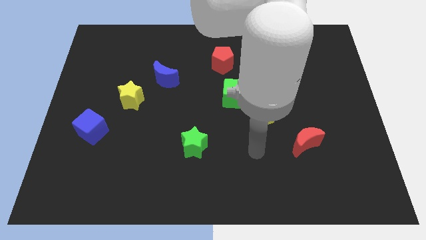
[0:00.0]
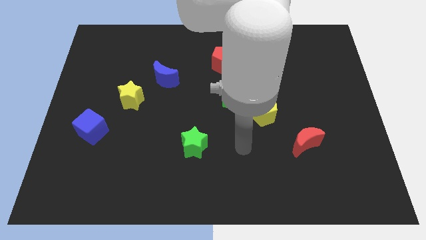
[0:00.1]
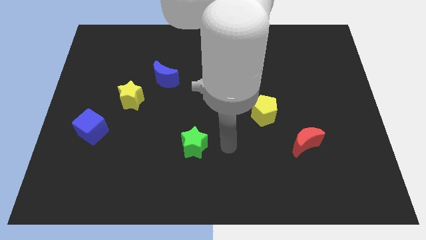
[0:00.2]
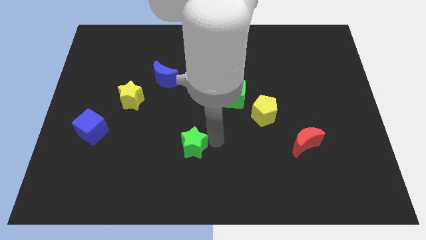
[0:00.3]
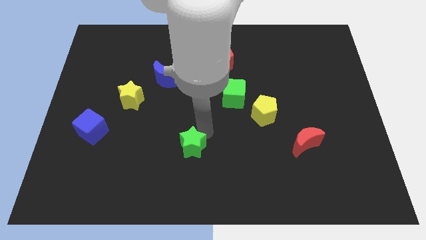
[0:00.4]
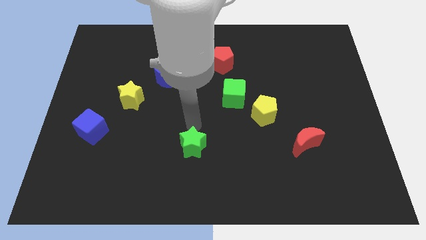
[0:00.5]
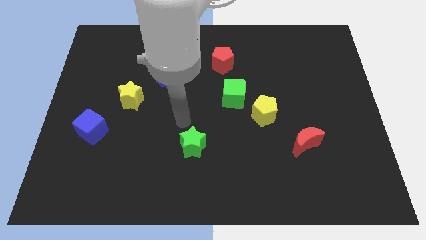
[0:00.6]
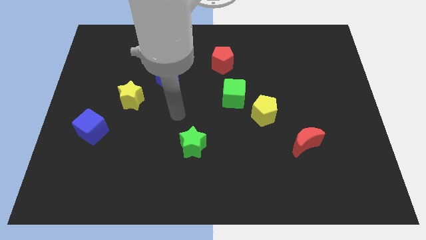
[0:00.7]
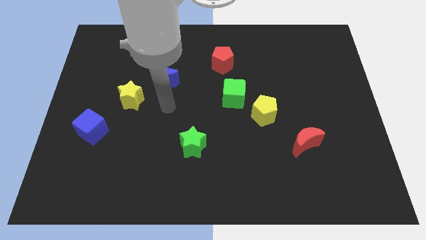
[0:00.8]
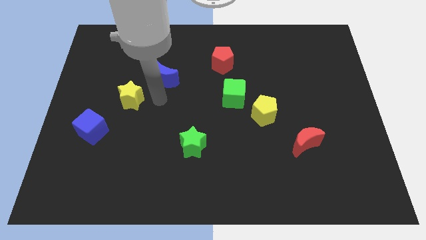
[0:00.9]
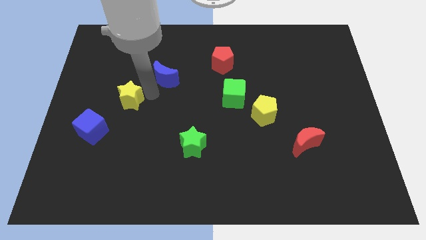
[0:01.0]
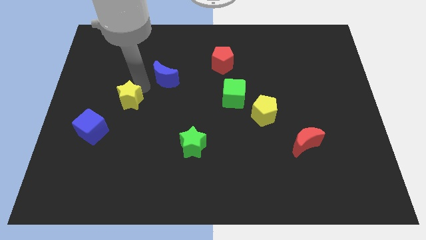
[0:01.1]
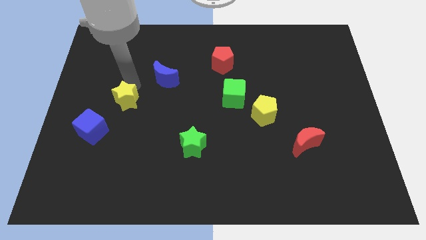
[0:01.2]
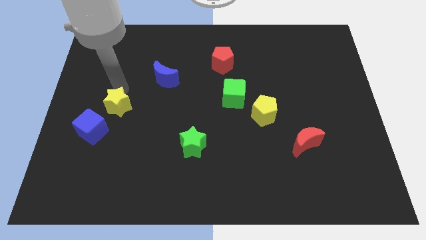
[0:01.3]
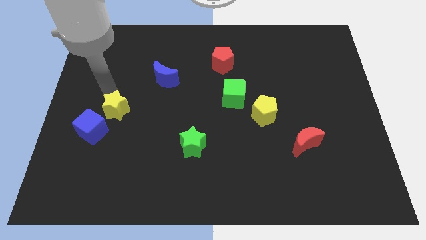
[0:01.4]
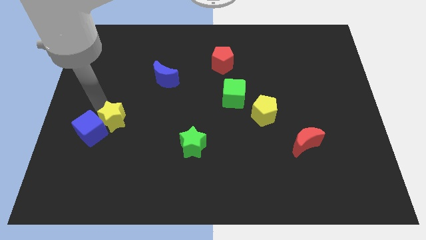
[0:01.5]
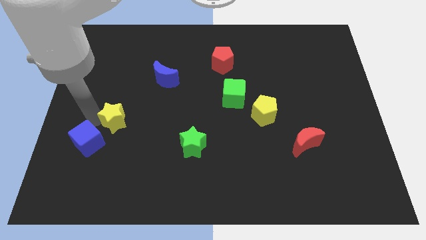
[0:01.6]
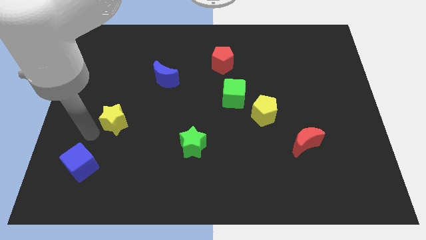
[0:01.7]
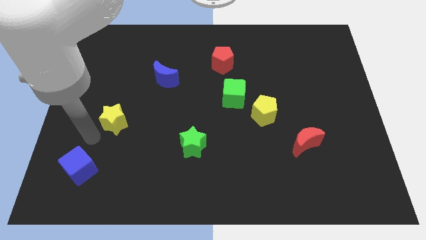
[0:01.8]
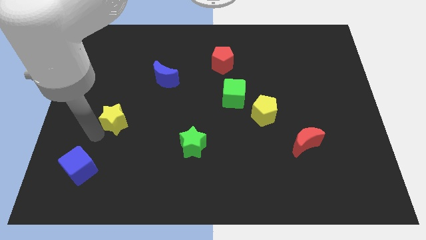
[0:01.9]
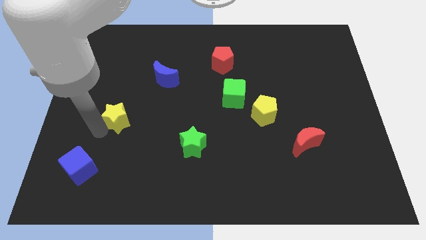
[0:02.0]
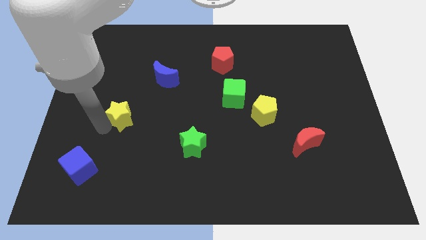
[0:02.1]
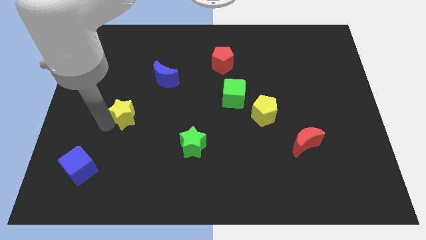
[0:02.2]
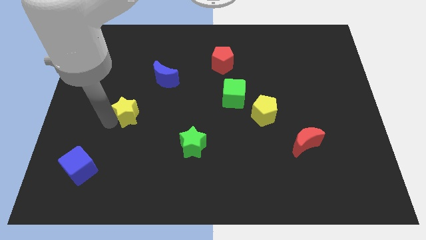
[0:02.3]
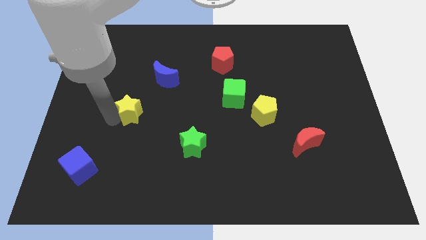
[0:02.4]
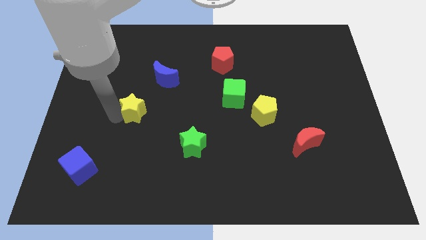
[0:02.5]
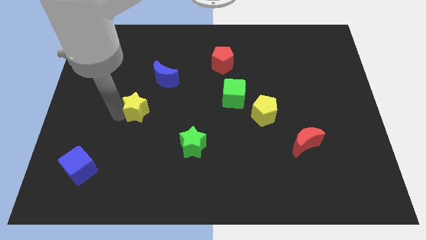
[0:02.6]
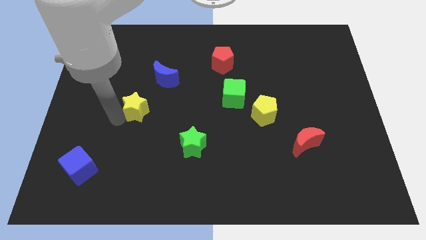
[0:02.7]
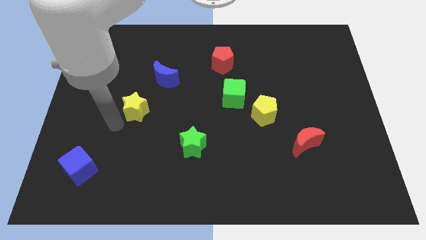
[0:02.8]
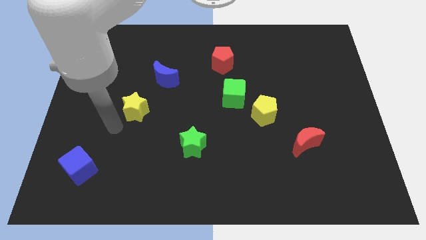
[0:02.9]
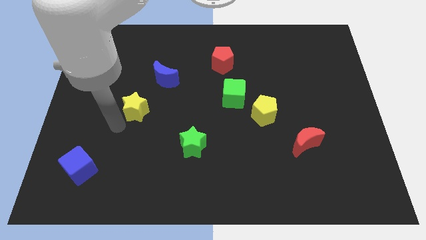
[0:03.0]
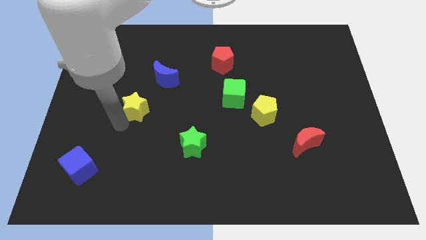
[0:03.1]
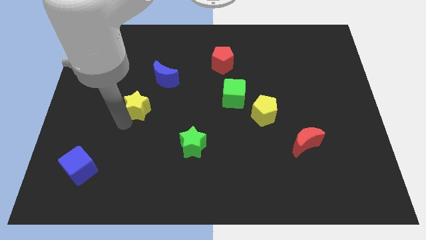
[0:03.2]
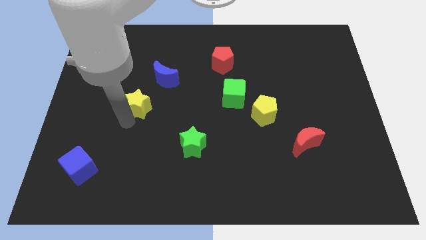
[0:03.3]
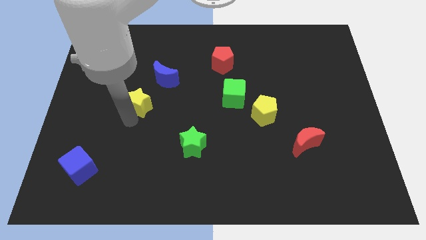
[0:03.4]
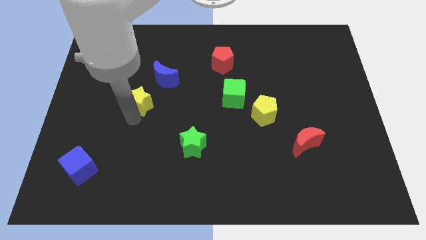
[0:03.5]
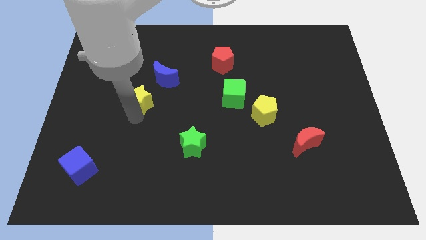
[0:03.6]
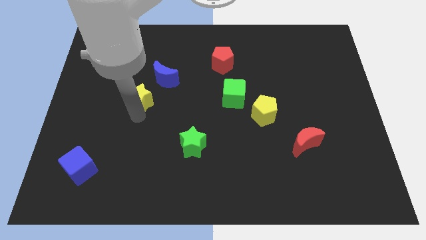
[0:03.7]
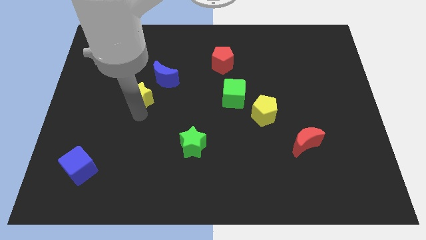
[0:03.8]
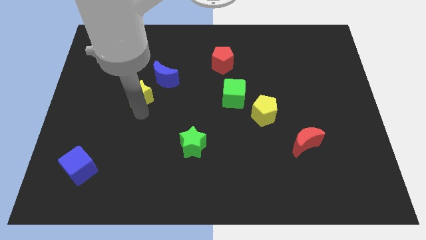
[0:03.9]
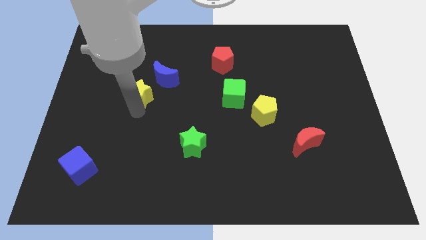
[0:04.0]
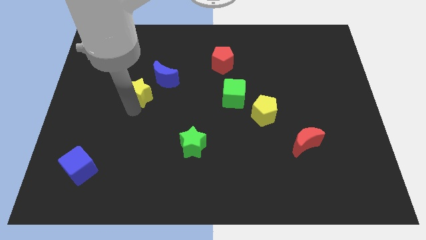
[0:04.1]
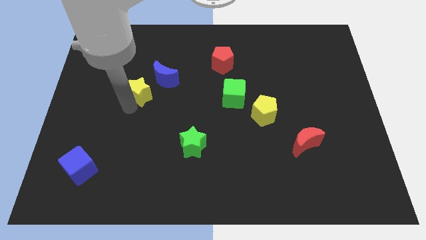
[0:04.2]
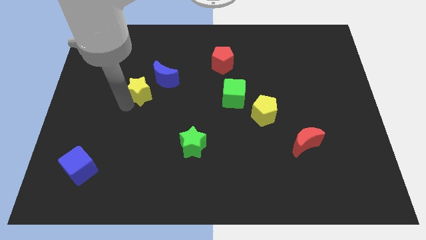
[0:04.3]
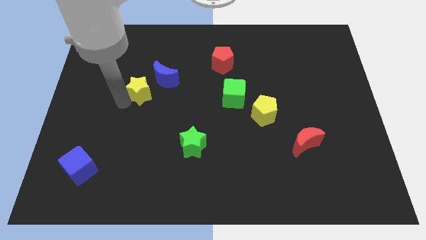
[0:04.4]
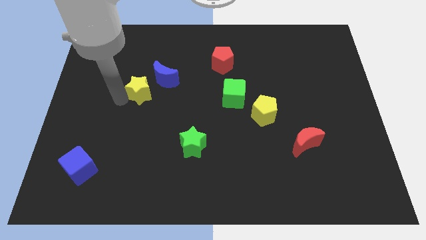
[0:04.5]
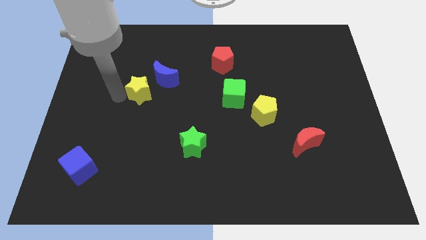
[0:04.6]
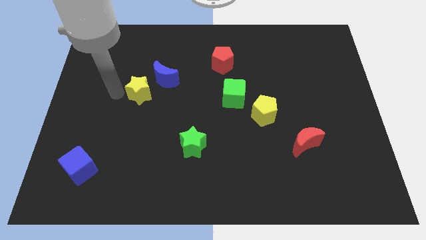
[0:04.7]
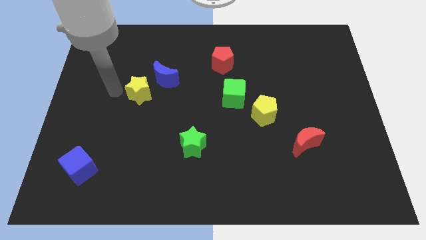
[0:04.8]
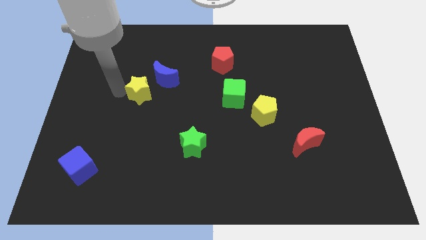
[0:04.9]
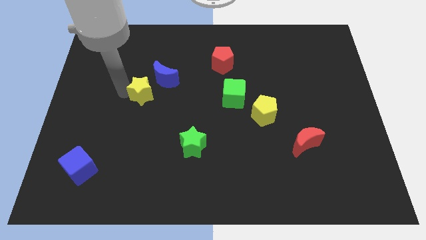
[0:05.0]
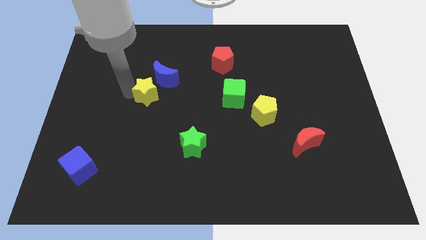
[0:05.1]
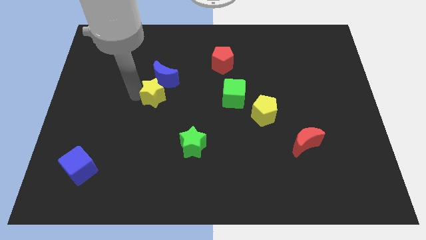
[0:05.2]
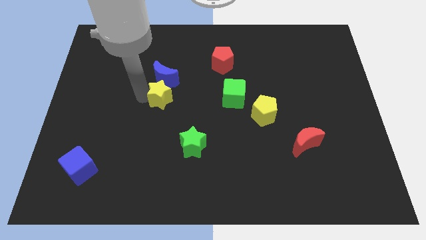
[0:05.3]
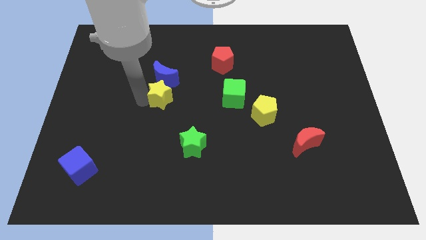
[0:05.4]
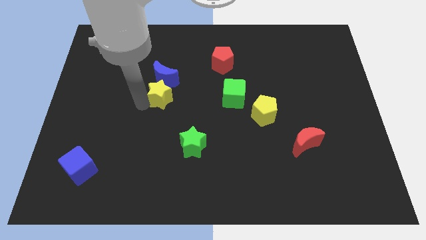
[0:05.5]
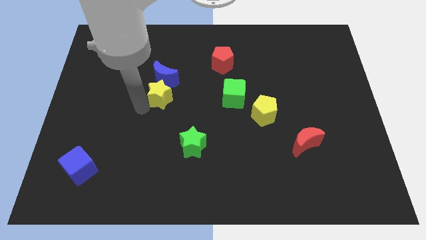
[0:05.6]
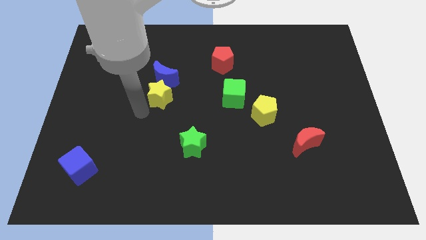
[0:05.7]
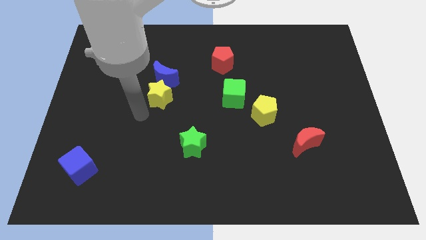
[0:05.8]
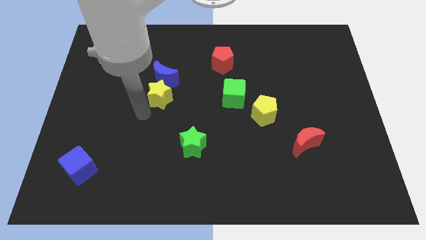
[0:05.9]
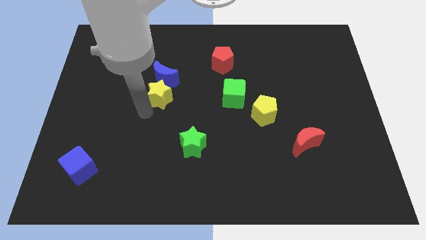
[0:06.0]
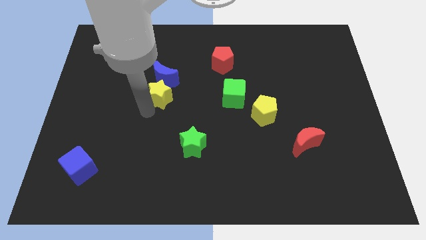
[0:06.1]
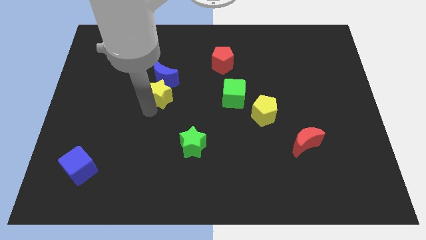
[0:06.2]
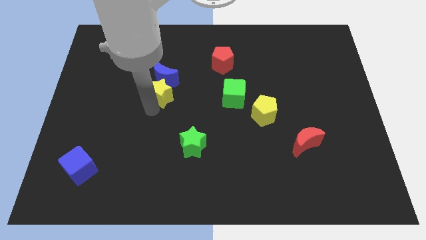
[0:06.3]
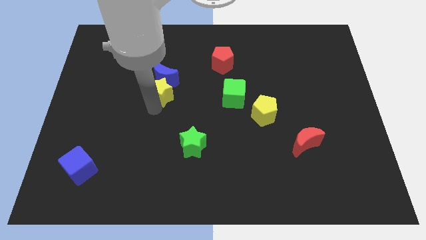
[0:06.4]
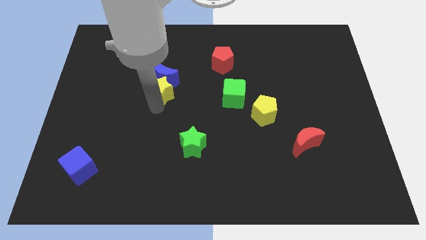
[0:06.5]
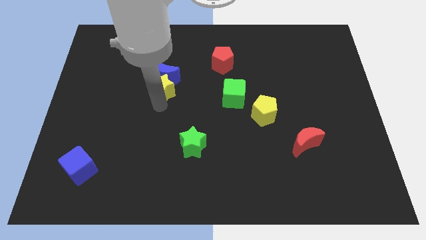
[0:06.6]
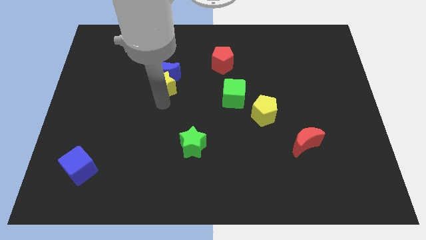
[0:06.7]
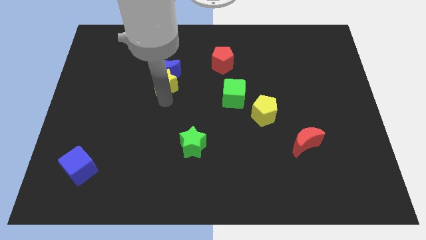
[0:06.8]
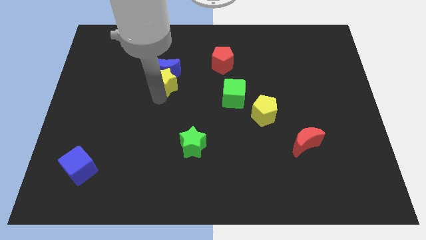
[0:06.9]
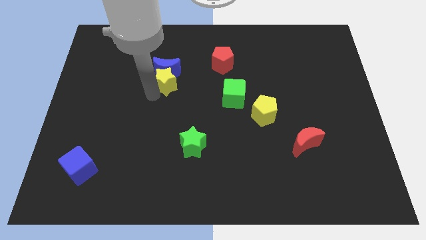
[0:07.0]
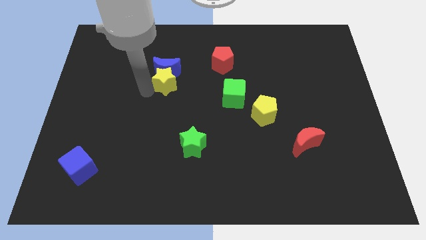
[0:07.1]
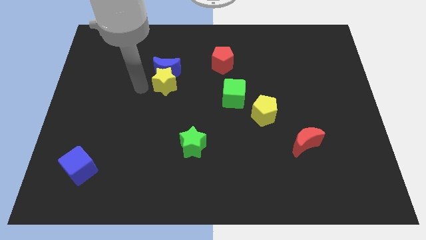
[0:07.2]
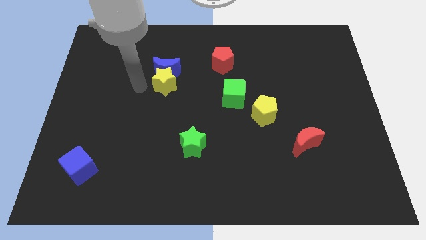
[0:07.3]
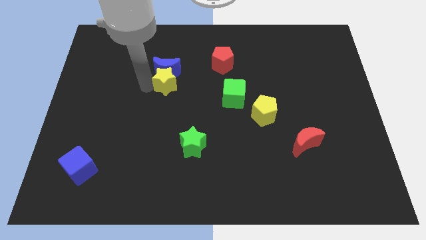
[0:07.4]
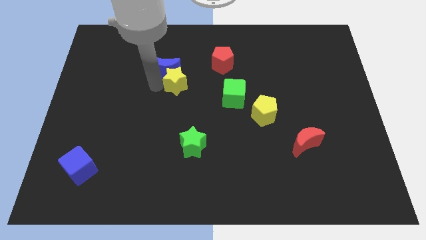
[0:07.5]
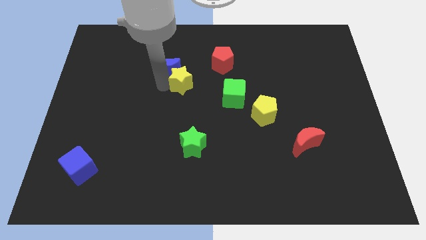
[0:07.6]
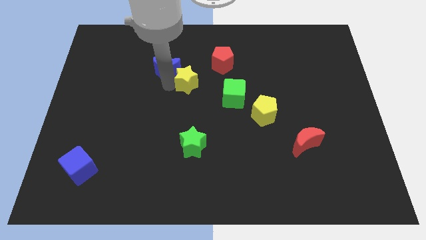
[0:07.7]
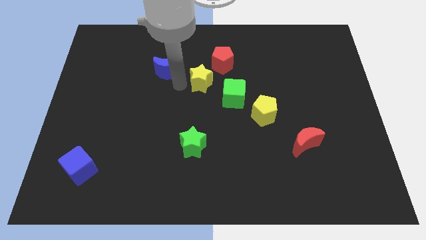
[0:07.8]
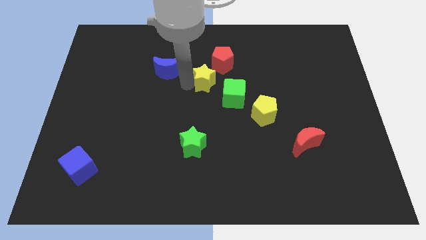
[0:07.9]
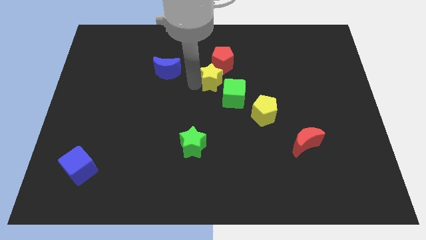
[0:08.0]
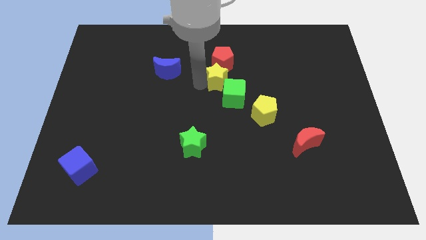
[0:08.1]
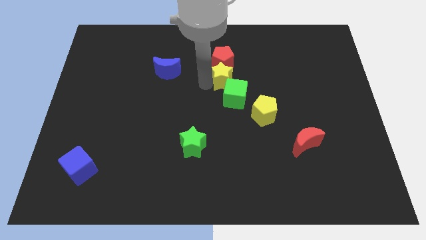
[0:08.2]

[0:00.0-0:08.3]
push the yellow star to the right
